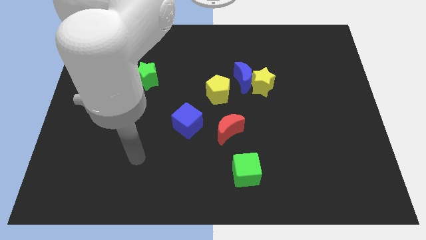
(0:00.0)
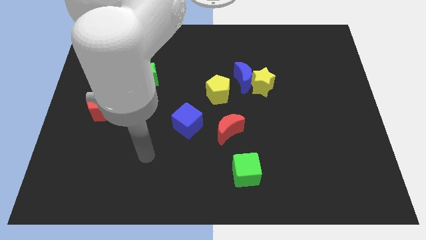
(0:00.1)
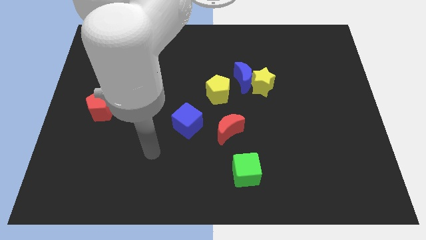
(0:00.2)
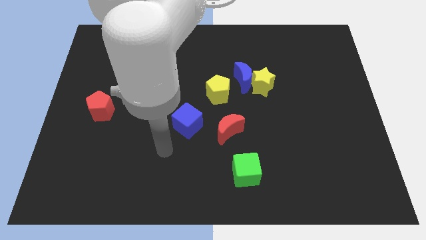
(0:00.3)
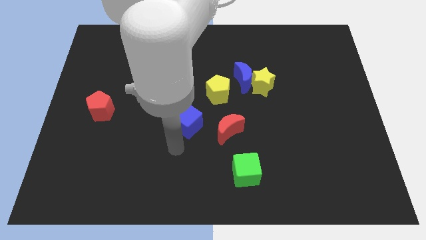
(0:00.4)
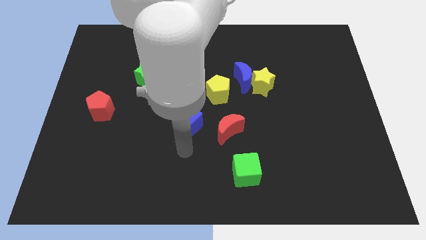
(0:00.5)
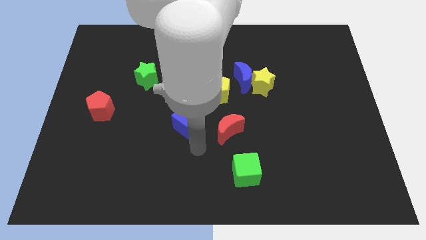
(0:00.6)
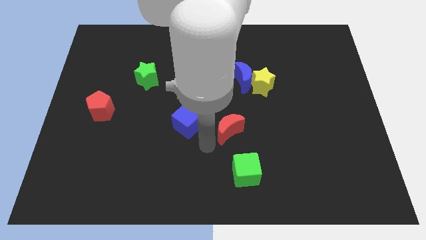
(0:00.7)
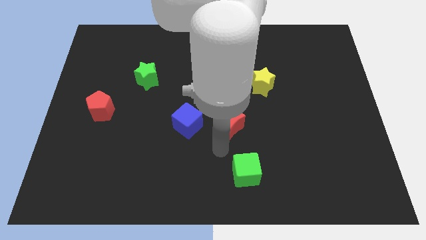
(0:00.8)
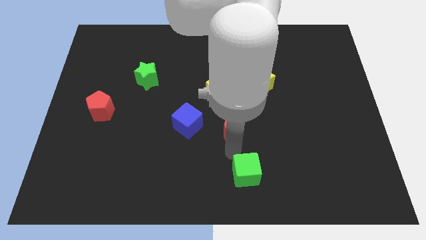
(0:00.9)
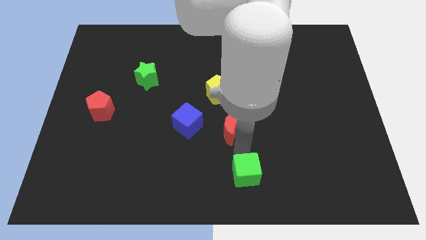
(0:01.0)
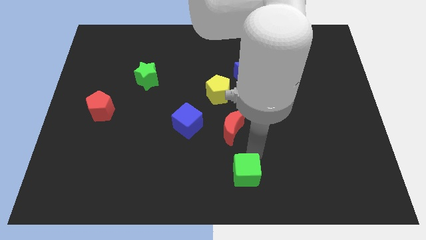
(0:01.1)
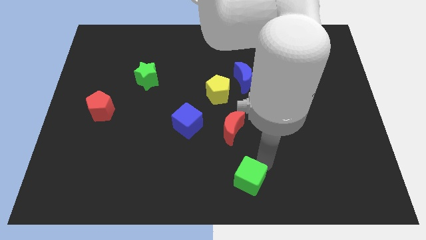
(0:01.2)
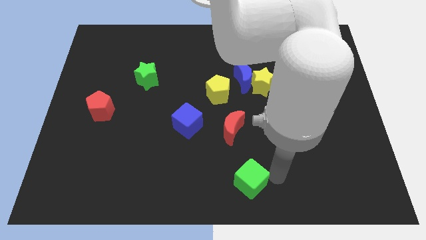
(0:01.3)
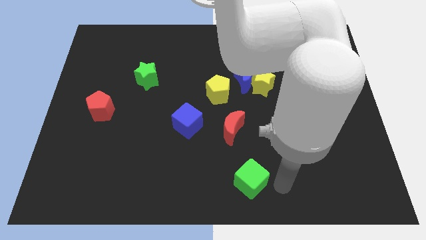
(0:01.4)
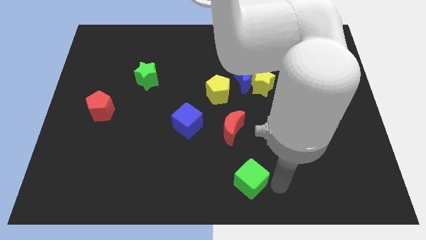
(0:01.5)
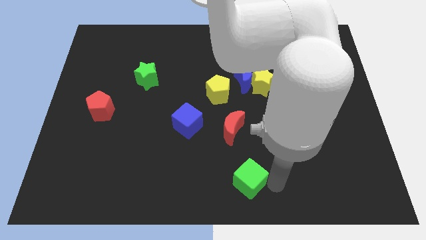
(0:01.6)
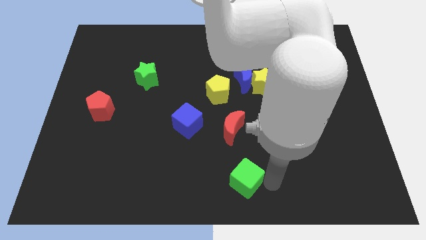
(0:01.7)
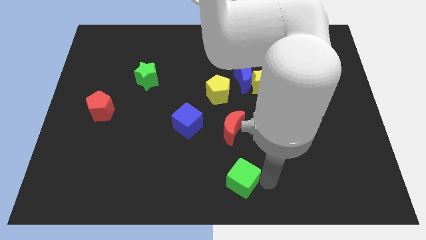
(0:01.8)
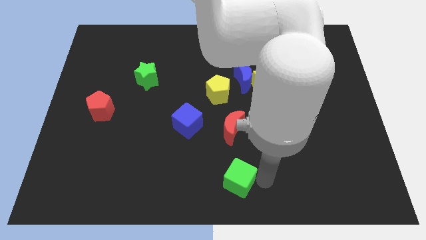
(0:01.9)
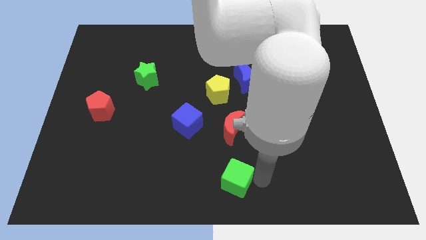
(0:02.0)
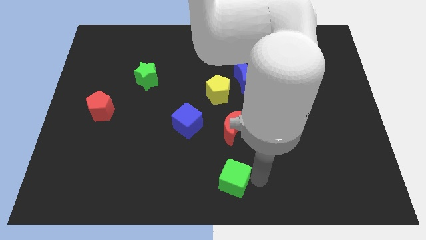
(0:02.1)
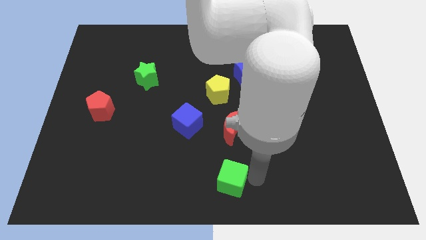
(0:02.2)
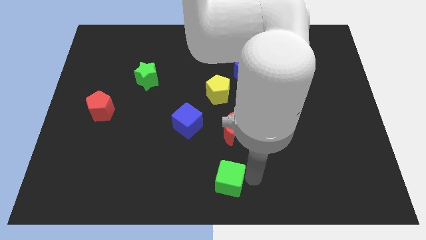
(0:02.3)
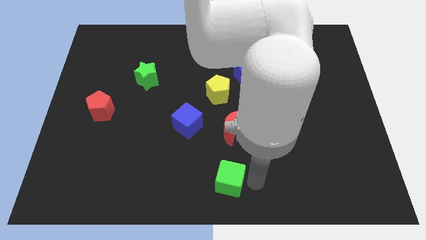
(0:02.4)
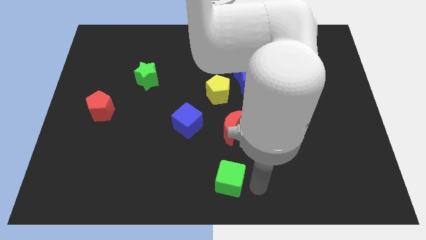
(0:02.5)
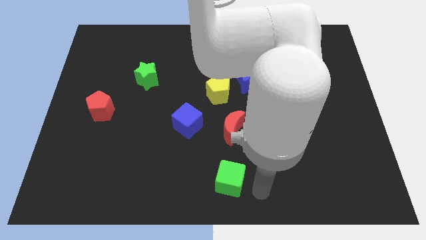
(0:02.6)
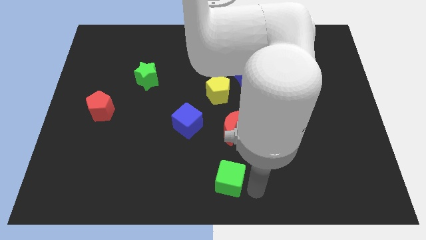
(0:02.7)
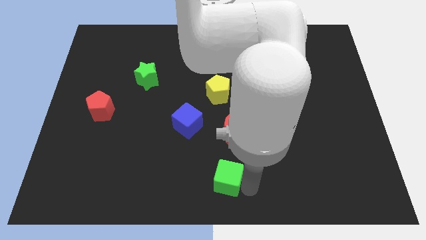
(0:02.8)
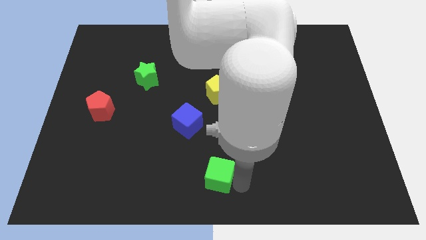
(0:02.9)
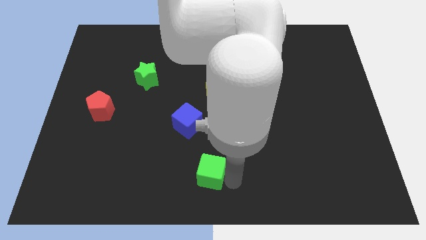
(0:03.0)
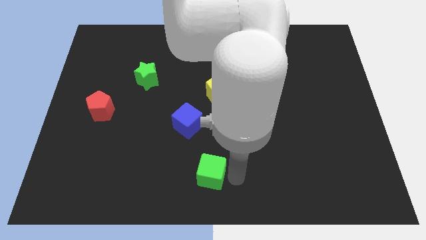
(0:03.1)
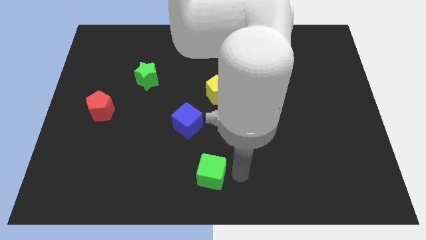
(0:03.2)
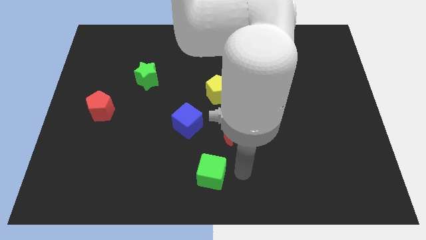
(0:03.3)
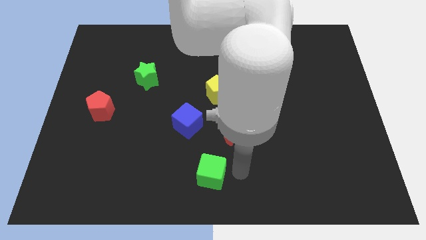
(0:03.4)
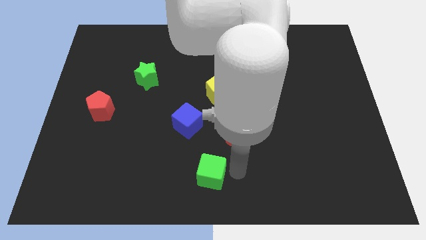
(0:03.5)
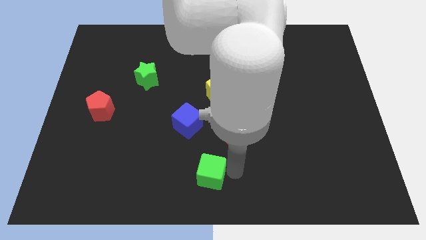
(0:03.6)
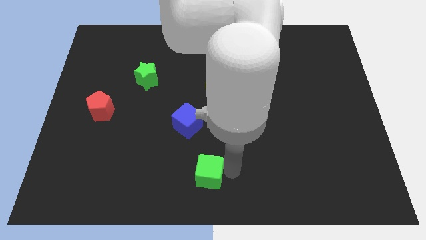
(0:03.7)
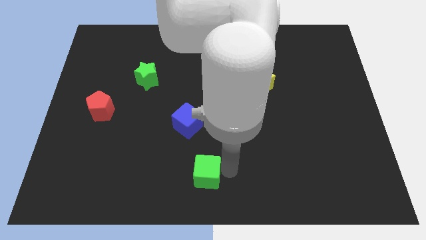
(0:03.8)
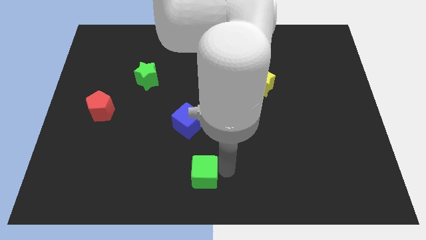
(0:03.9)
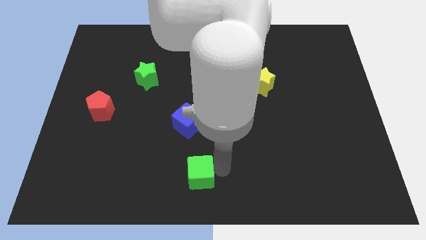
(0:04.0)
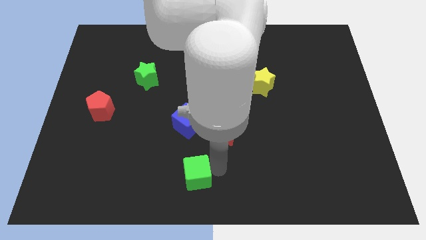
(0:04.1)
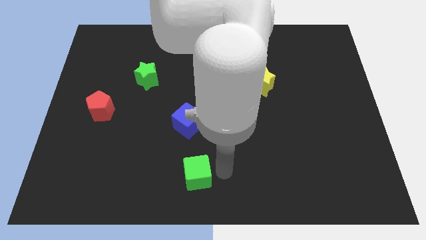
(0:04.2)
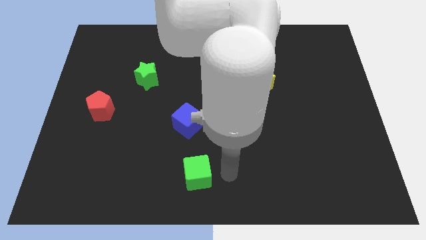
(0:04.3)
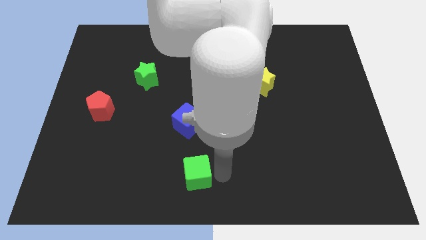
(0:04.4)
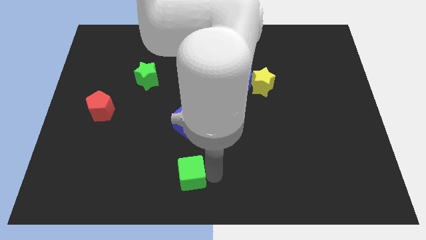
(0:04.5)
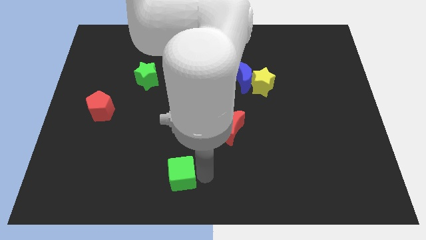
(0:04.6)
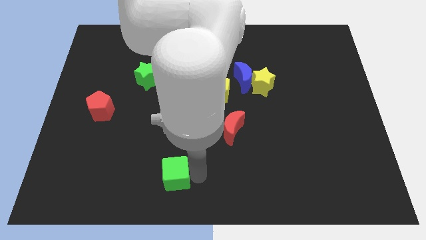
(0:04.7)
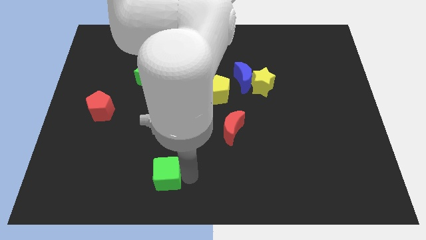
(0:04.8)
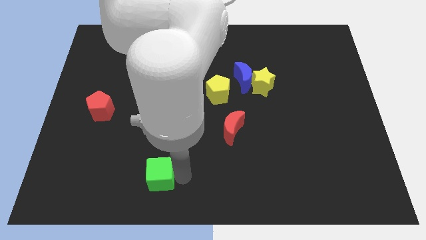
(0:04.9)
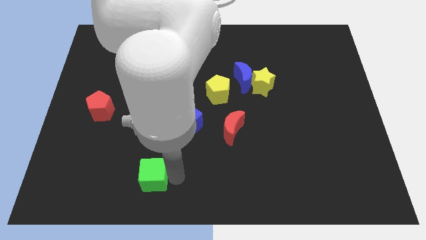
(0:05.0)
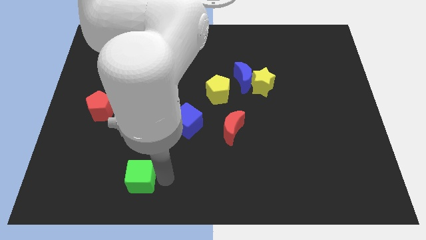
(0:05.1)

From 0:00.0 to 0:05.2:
push the green cube left

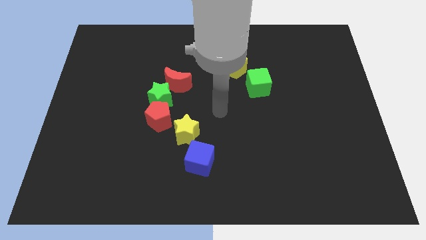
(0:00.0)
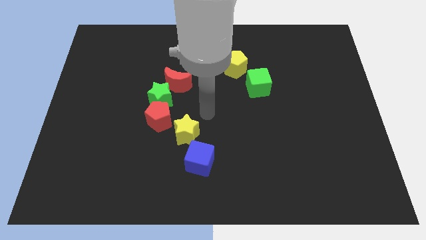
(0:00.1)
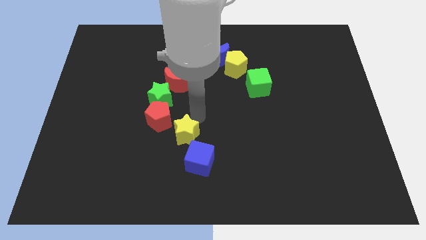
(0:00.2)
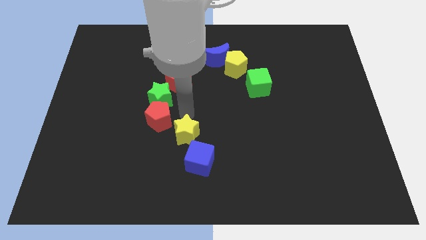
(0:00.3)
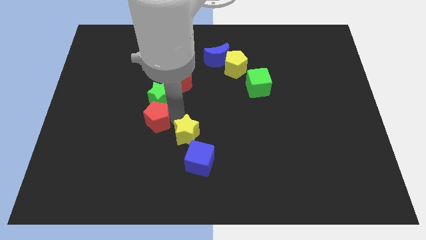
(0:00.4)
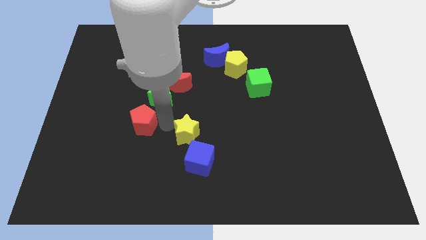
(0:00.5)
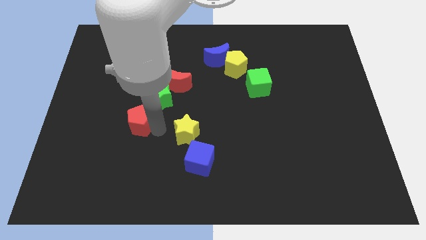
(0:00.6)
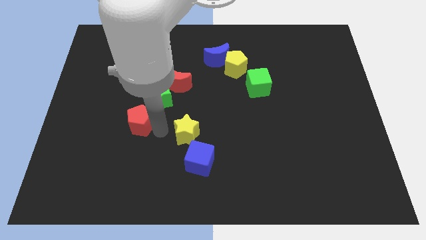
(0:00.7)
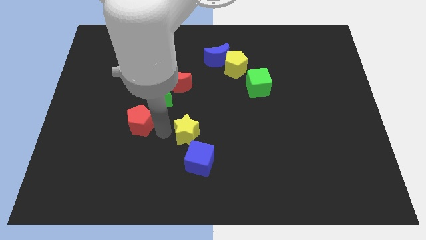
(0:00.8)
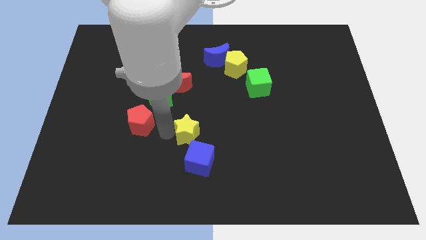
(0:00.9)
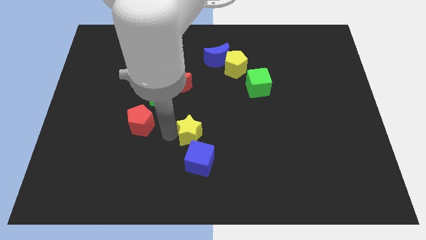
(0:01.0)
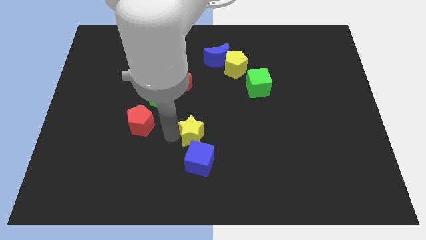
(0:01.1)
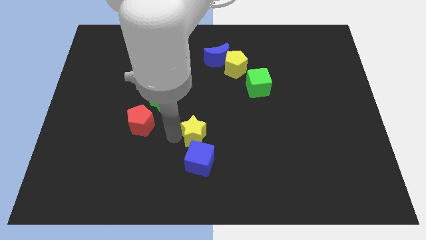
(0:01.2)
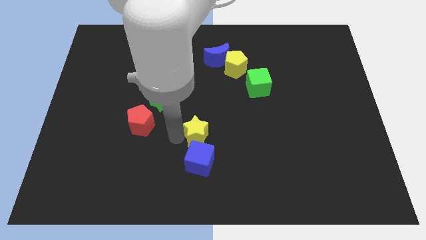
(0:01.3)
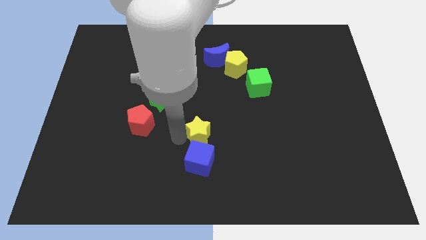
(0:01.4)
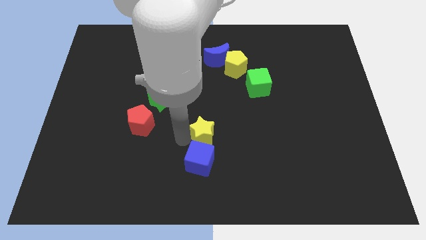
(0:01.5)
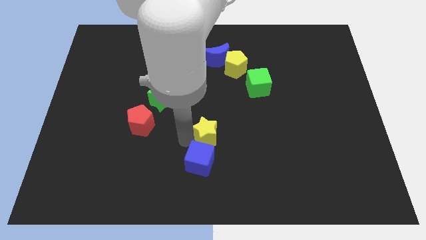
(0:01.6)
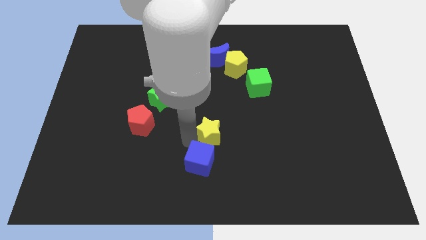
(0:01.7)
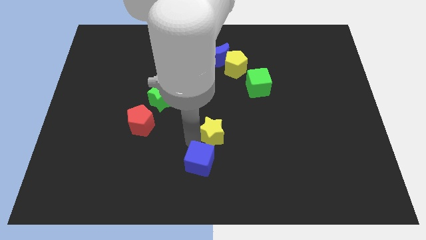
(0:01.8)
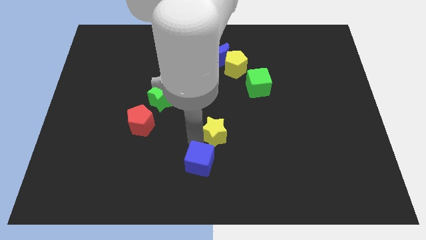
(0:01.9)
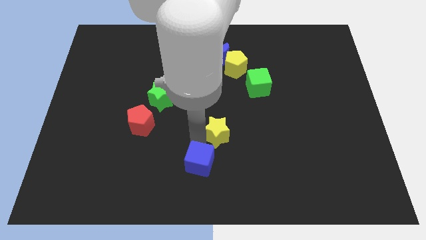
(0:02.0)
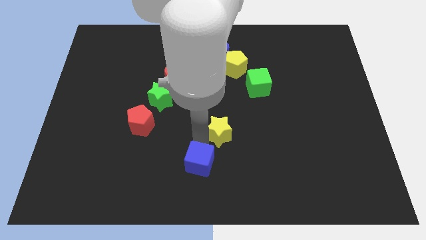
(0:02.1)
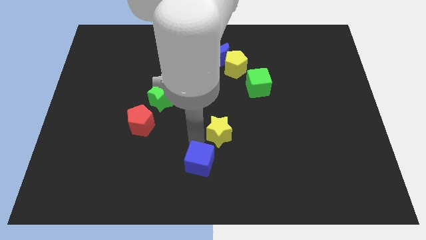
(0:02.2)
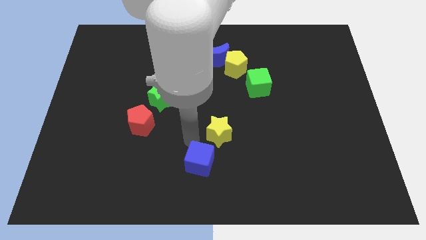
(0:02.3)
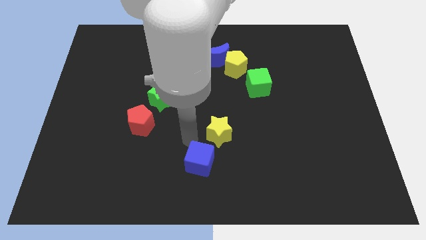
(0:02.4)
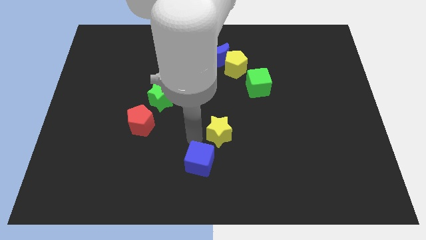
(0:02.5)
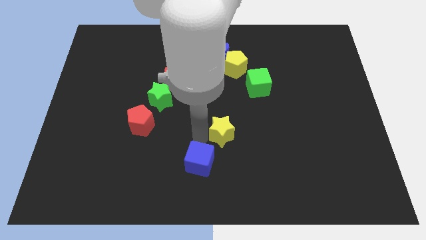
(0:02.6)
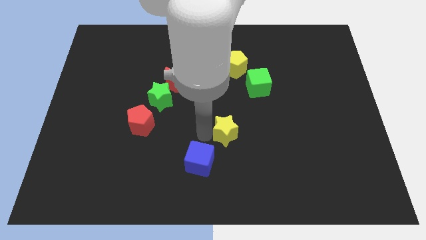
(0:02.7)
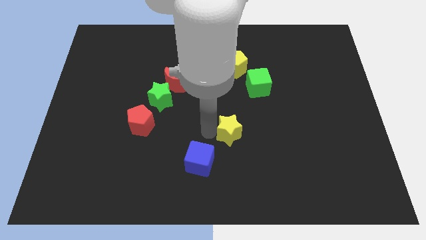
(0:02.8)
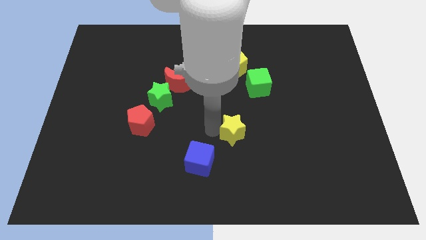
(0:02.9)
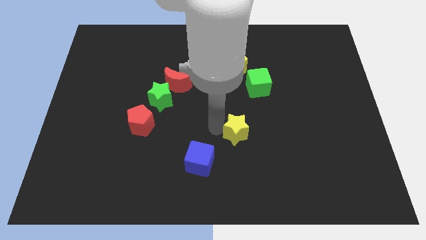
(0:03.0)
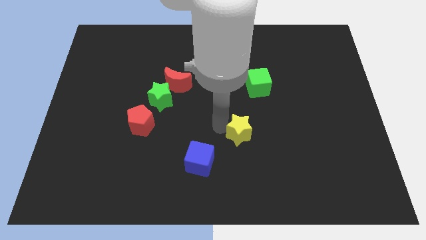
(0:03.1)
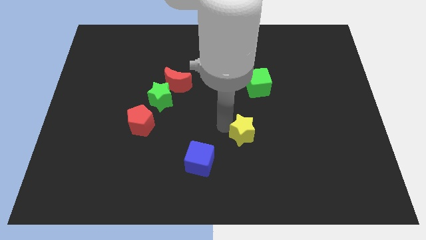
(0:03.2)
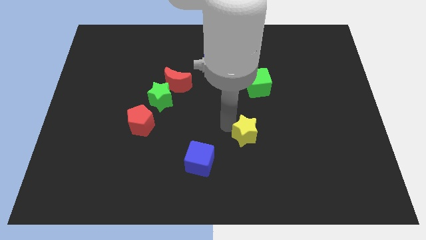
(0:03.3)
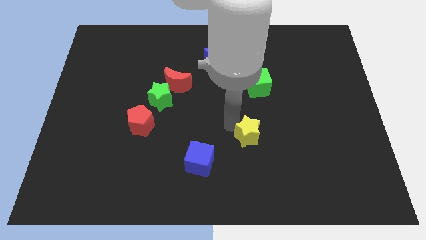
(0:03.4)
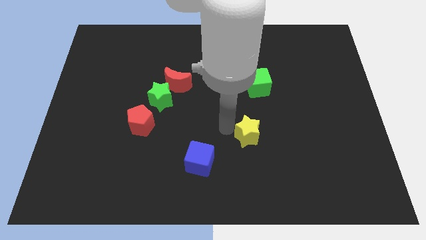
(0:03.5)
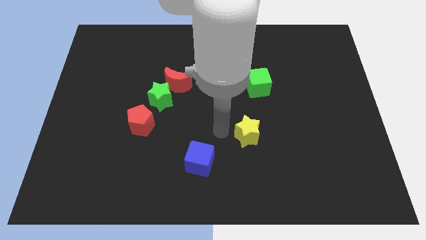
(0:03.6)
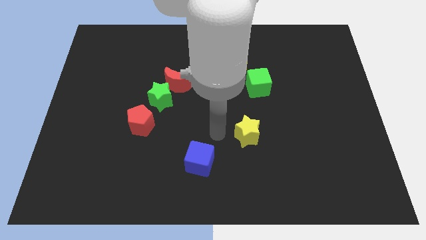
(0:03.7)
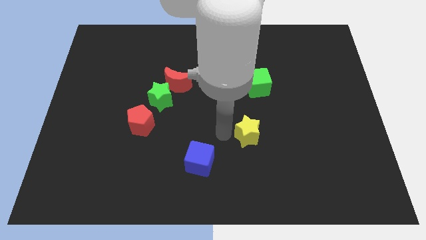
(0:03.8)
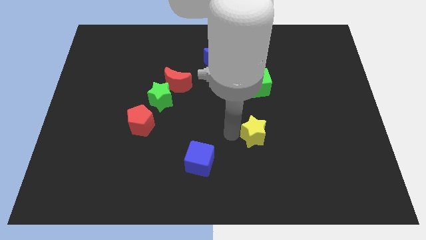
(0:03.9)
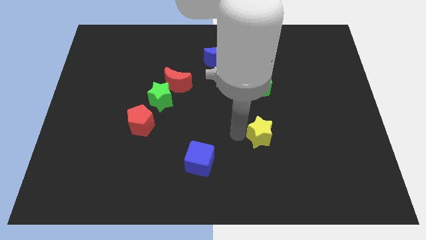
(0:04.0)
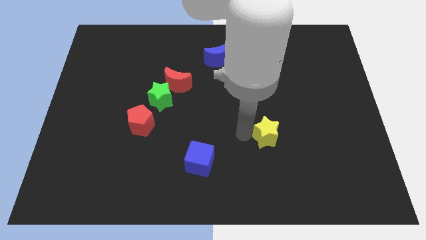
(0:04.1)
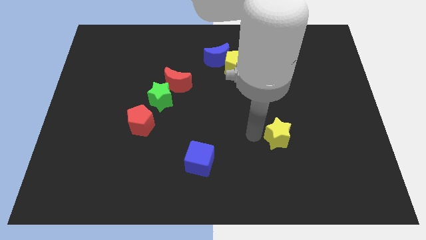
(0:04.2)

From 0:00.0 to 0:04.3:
push the yellow star to the right
